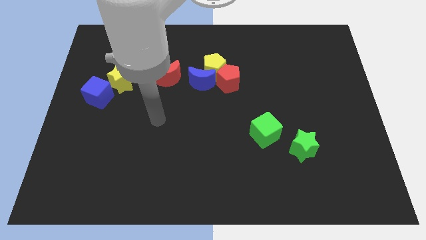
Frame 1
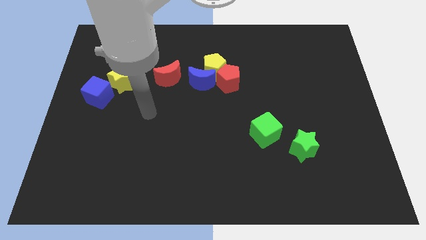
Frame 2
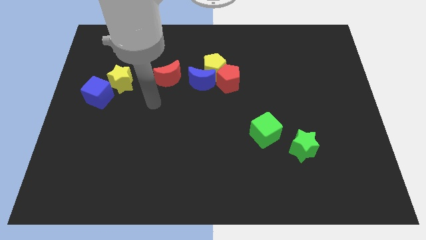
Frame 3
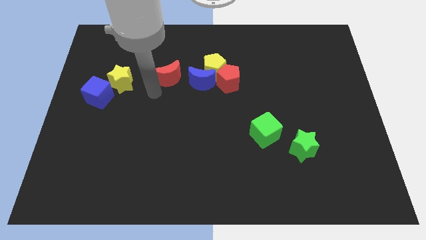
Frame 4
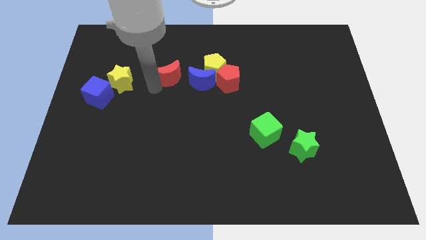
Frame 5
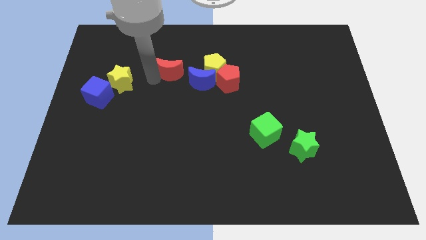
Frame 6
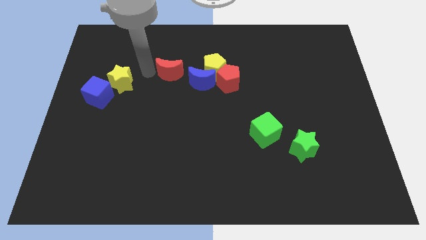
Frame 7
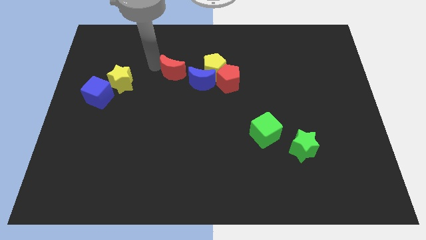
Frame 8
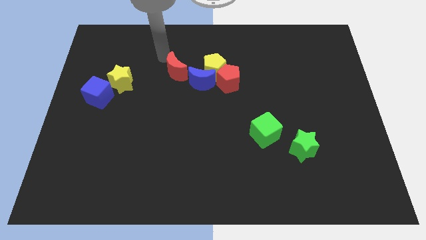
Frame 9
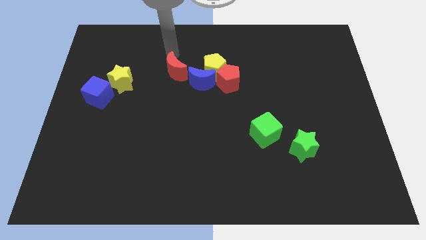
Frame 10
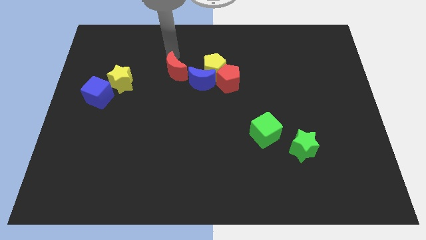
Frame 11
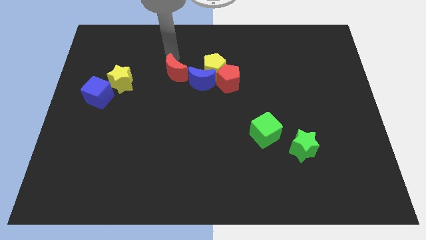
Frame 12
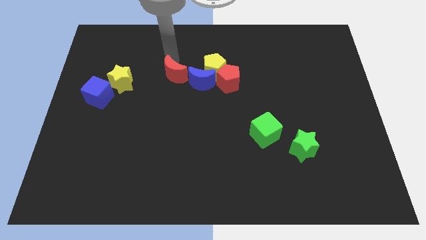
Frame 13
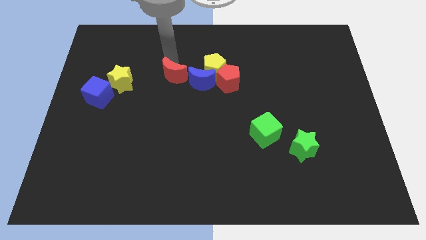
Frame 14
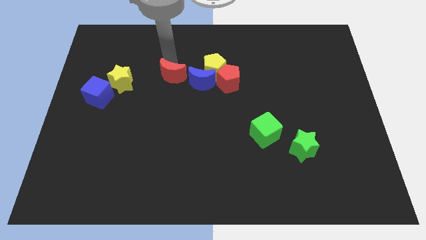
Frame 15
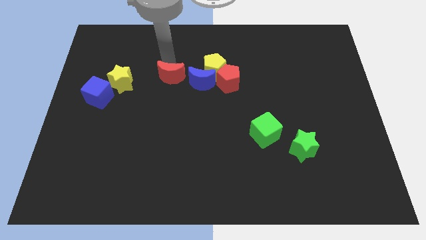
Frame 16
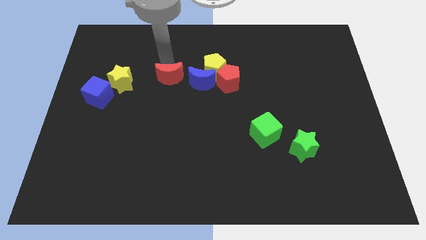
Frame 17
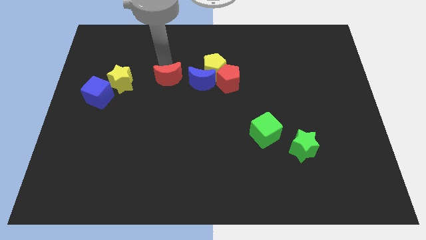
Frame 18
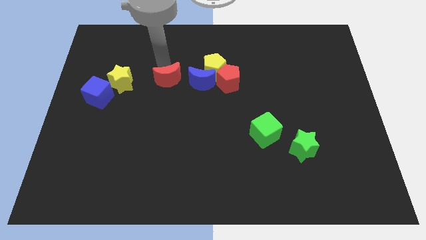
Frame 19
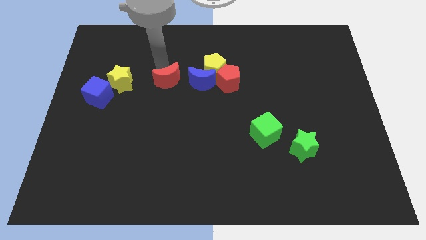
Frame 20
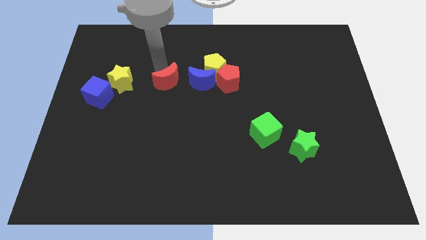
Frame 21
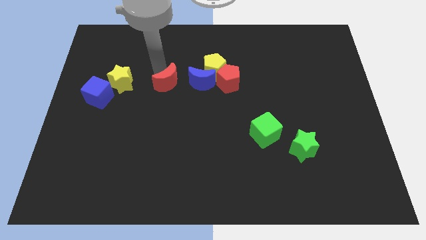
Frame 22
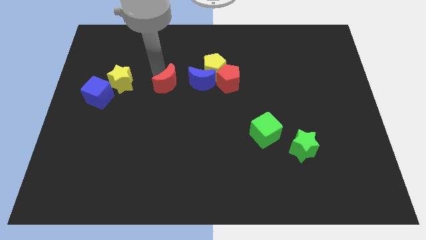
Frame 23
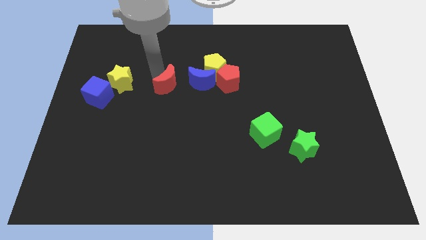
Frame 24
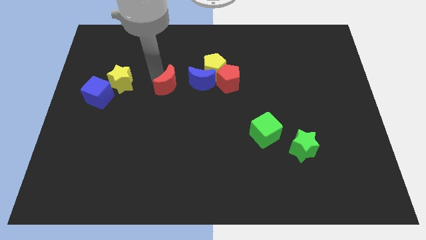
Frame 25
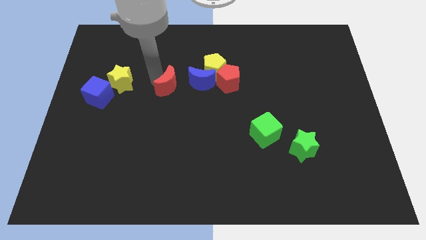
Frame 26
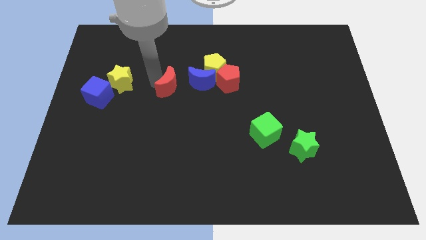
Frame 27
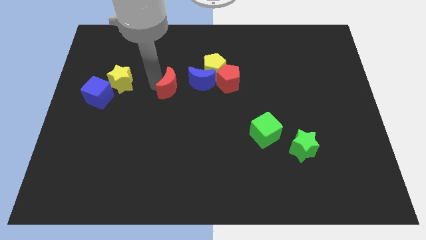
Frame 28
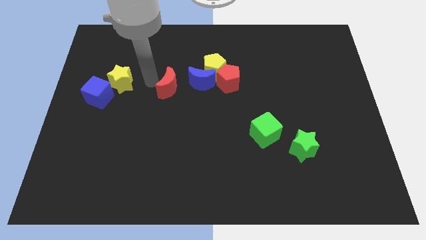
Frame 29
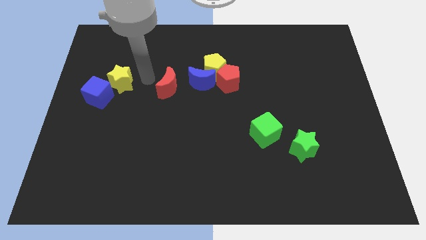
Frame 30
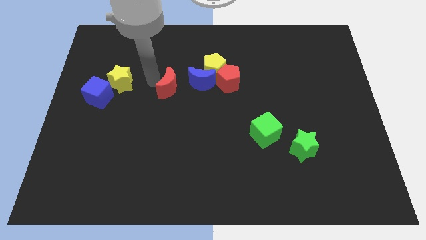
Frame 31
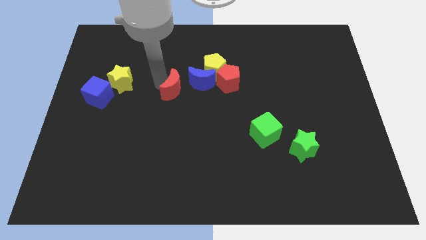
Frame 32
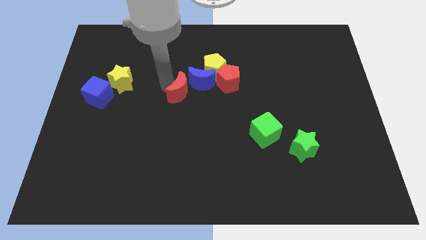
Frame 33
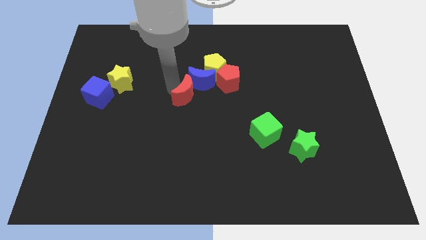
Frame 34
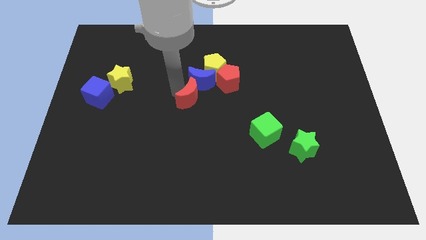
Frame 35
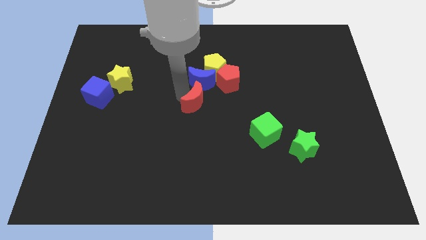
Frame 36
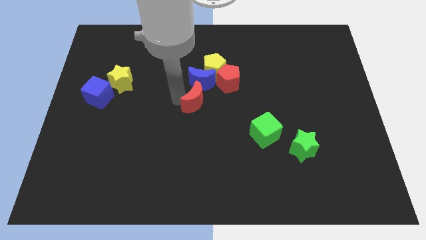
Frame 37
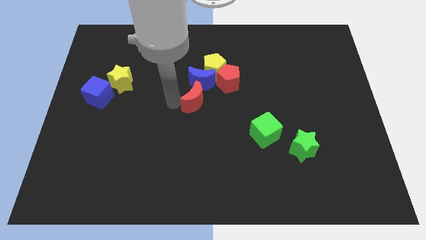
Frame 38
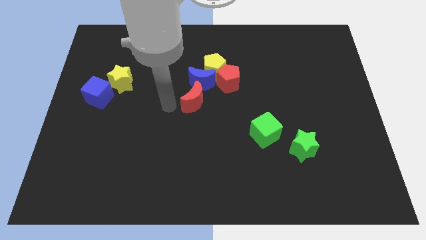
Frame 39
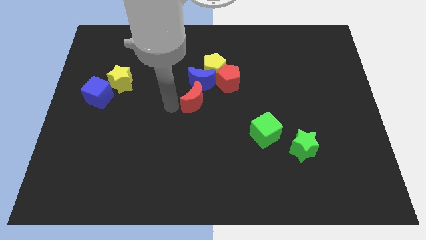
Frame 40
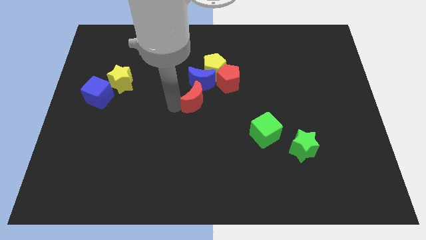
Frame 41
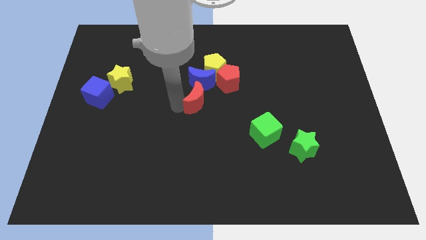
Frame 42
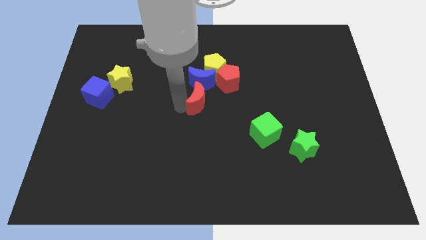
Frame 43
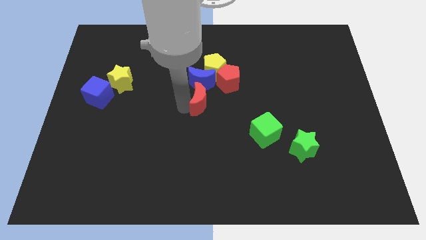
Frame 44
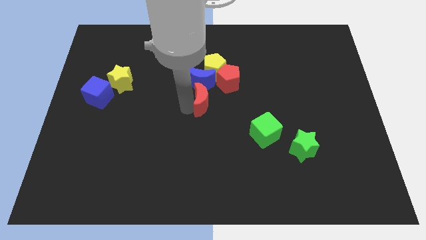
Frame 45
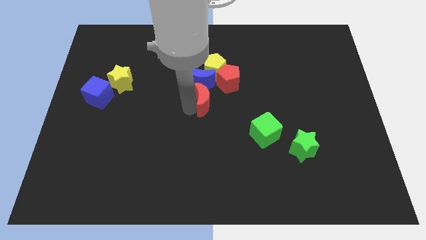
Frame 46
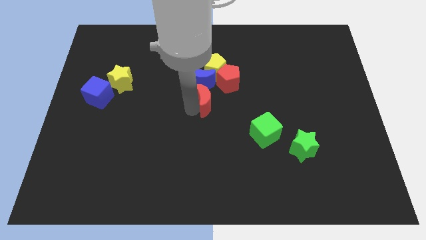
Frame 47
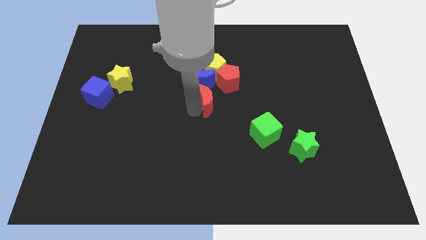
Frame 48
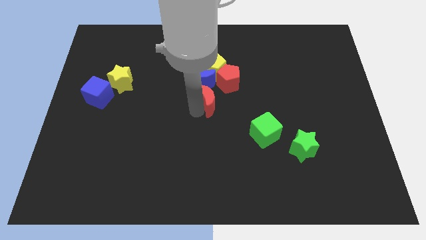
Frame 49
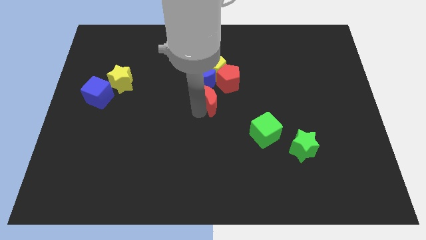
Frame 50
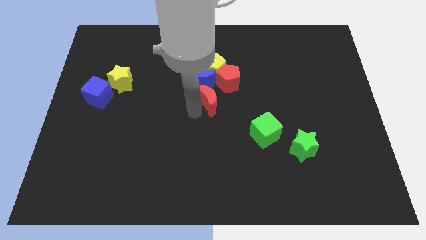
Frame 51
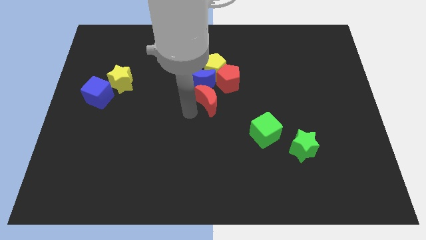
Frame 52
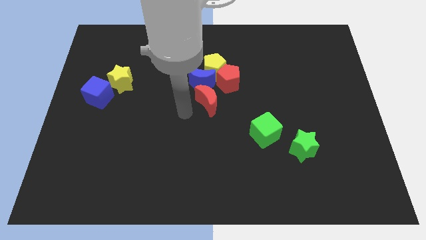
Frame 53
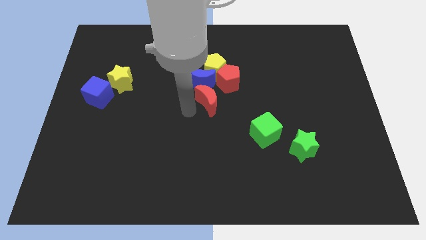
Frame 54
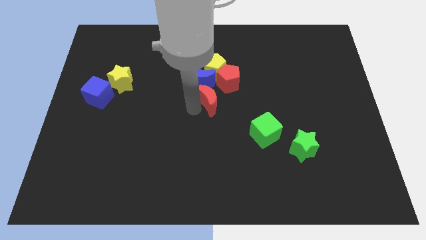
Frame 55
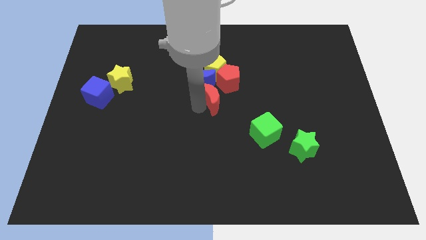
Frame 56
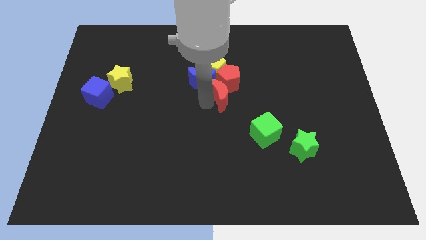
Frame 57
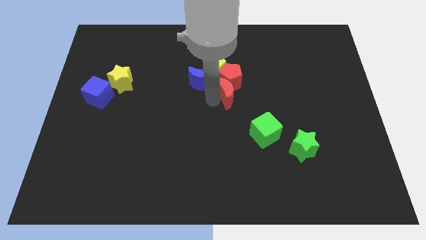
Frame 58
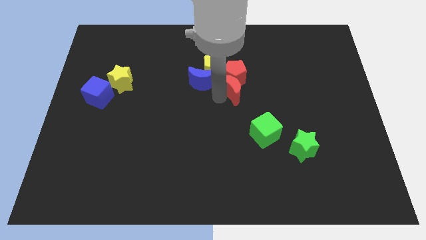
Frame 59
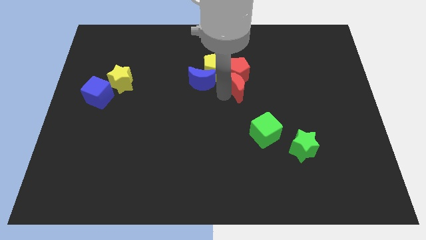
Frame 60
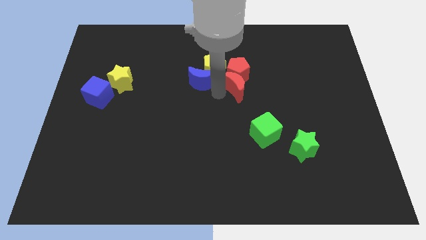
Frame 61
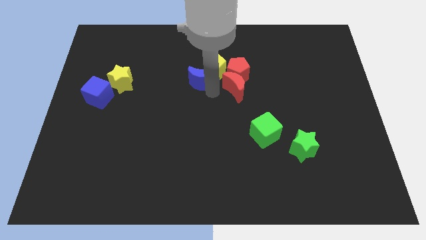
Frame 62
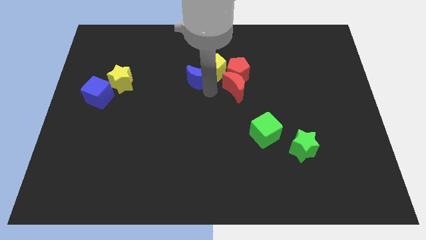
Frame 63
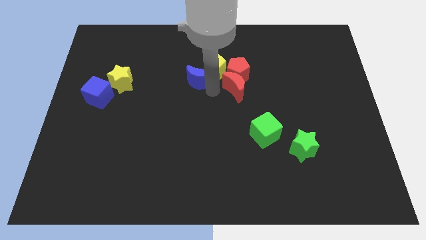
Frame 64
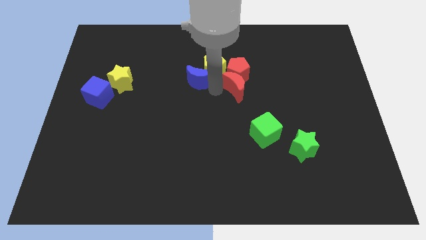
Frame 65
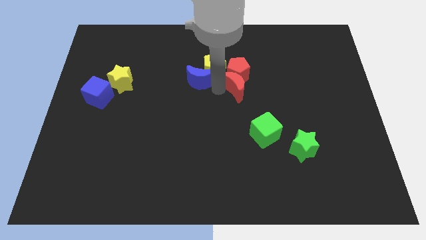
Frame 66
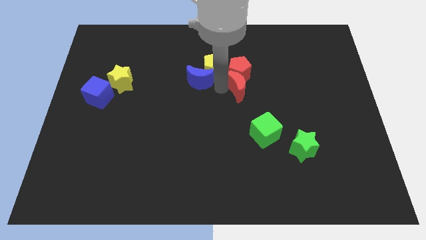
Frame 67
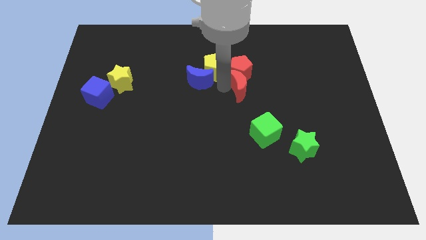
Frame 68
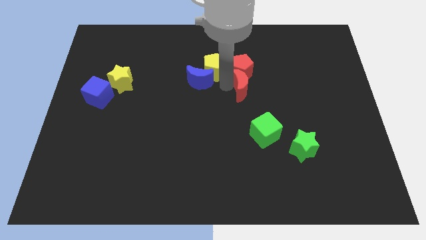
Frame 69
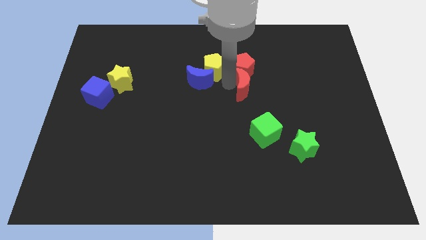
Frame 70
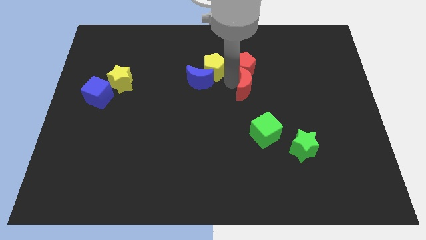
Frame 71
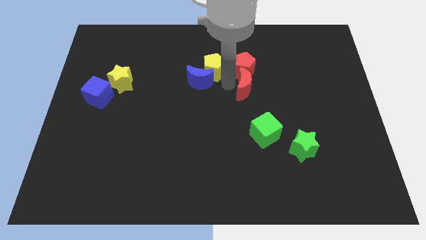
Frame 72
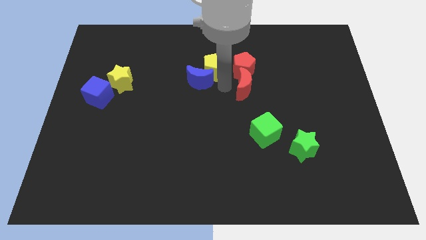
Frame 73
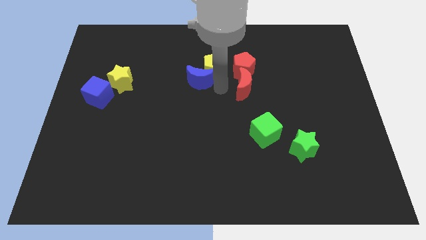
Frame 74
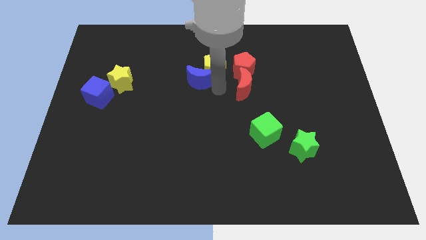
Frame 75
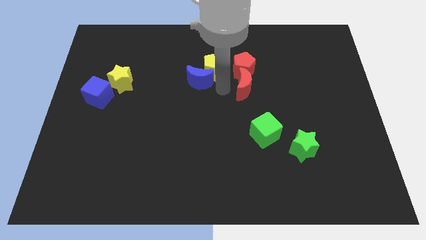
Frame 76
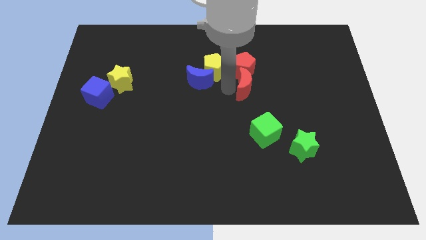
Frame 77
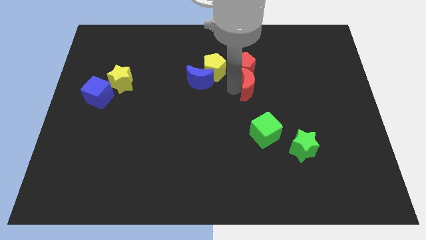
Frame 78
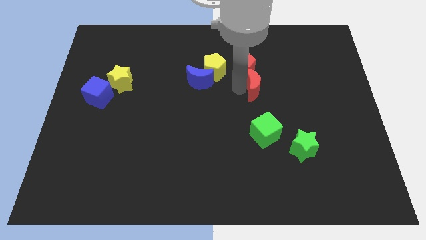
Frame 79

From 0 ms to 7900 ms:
push the red moon to the right

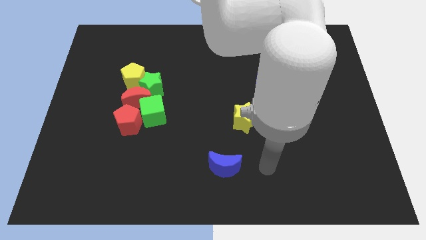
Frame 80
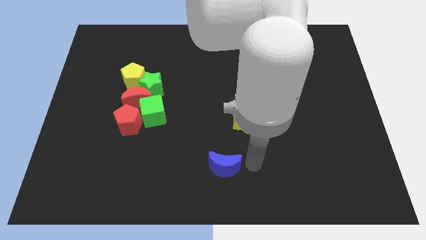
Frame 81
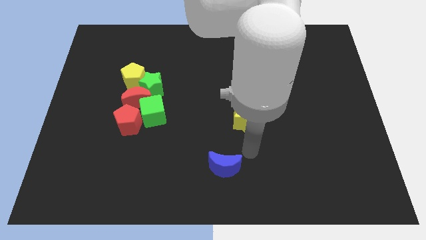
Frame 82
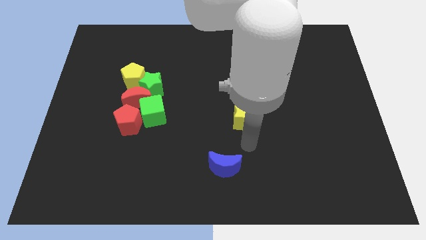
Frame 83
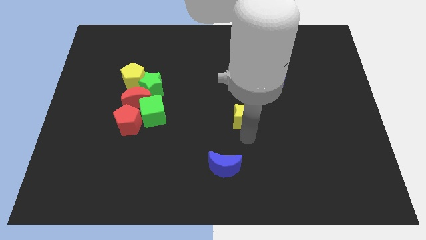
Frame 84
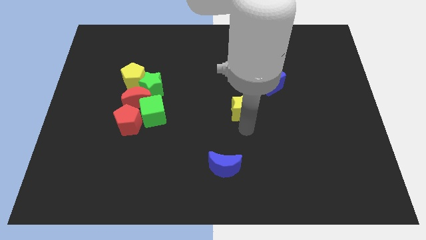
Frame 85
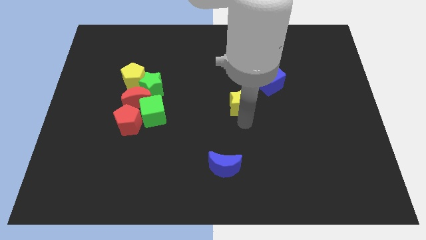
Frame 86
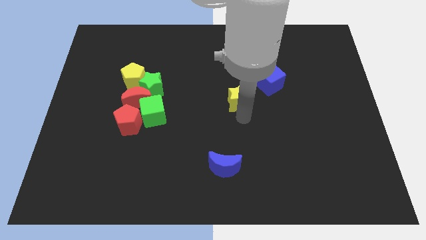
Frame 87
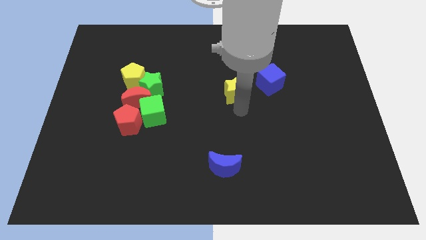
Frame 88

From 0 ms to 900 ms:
push the yellow star a bit upwards
